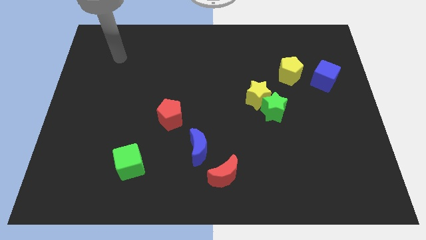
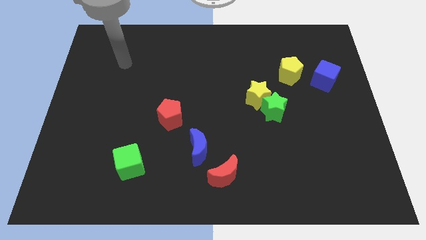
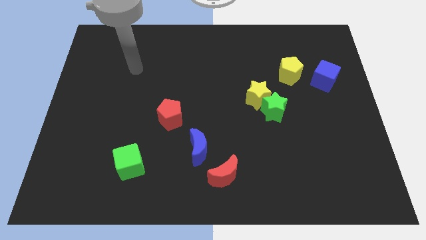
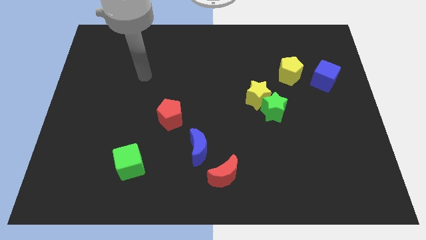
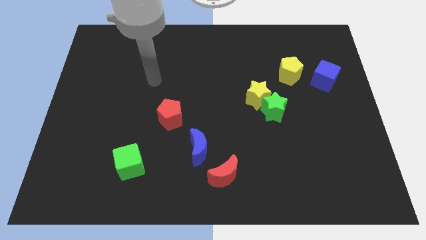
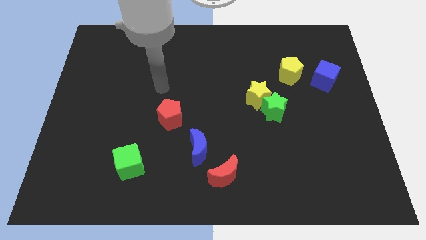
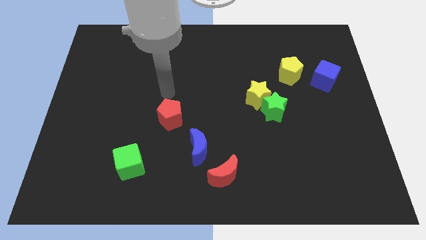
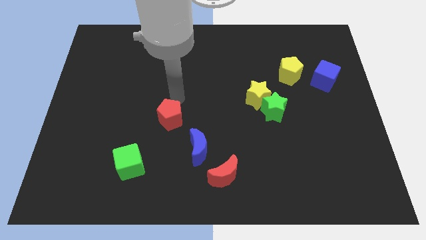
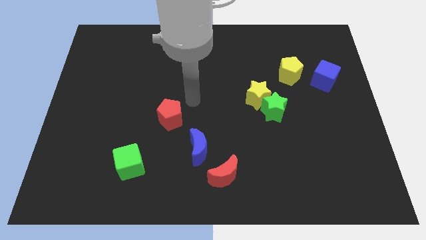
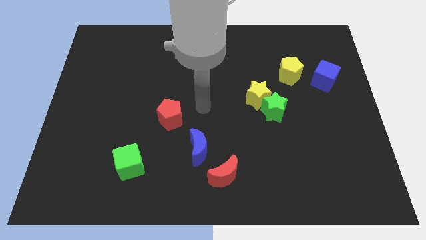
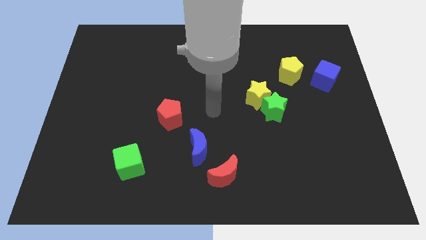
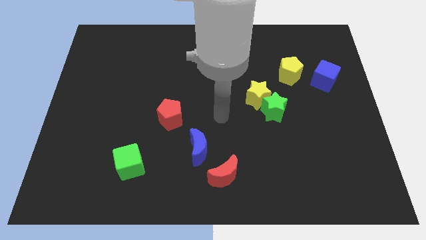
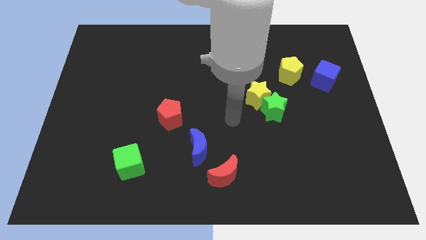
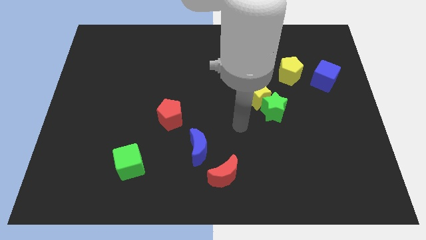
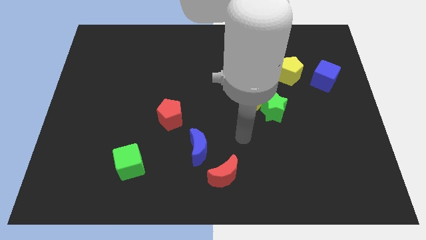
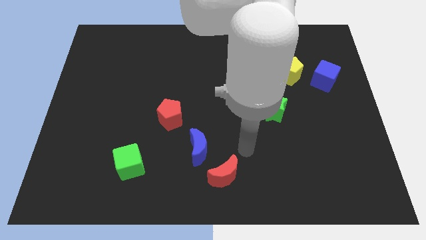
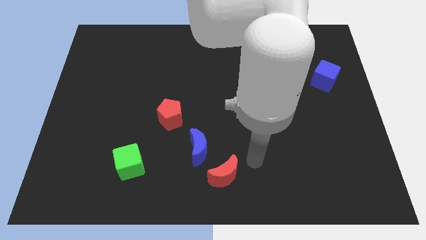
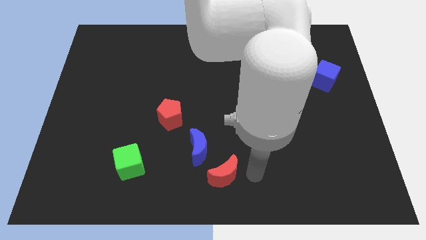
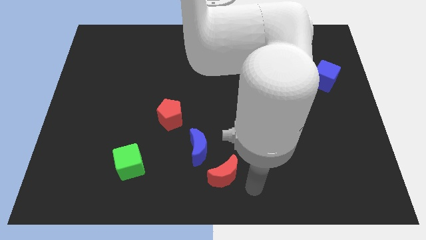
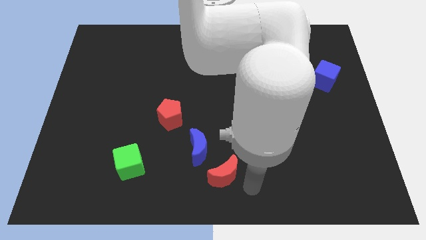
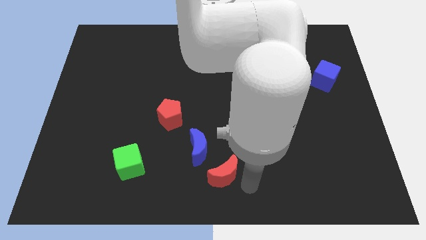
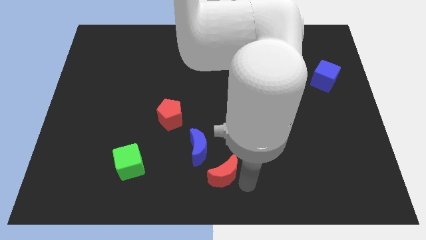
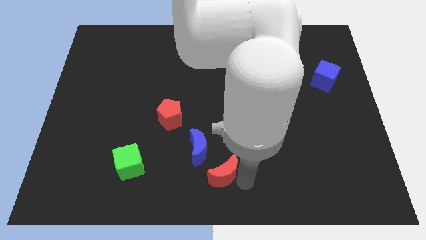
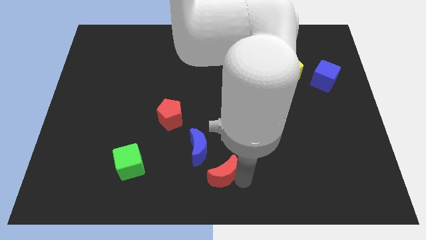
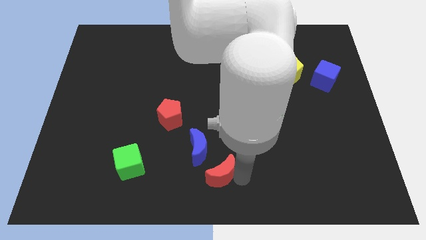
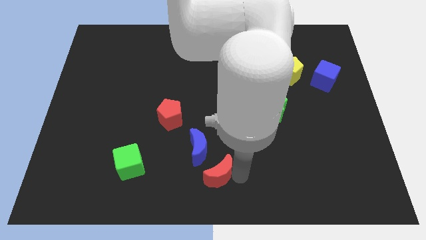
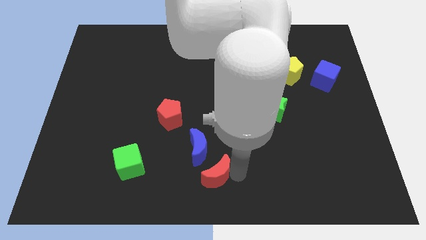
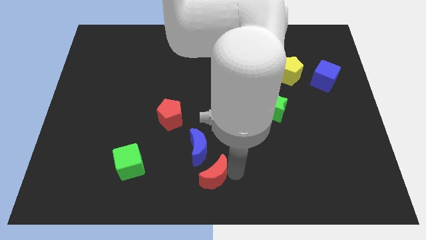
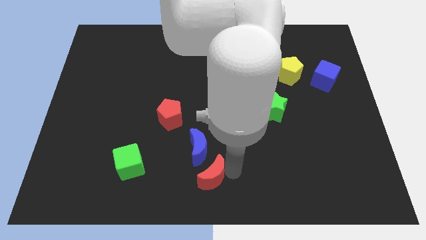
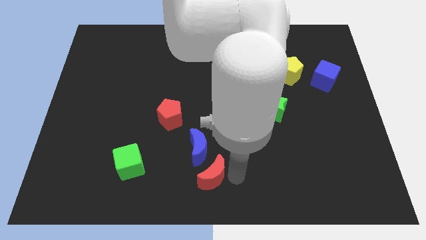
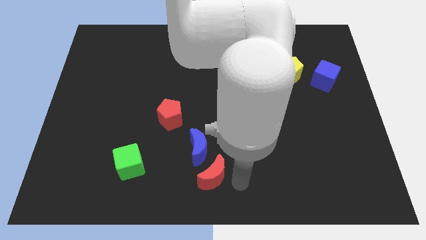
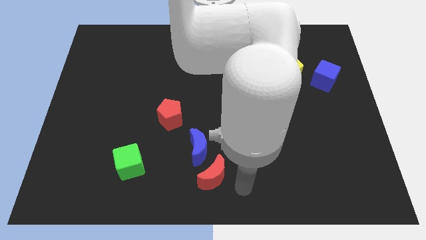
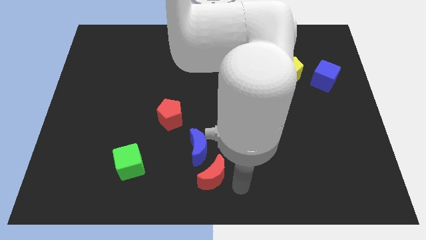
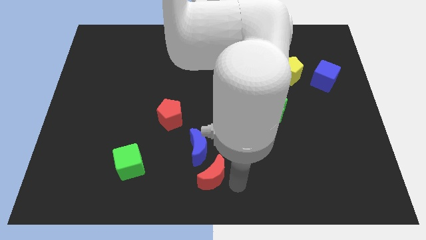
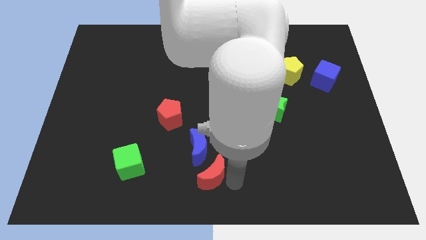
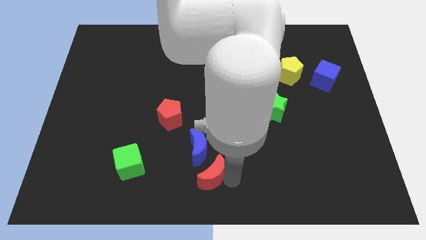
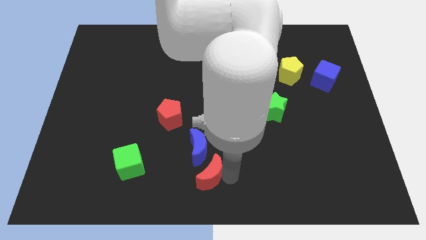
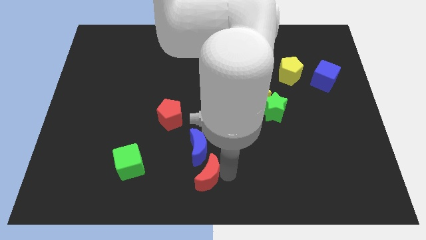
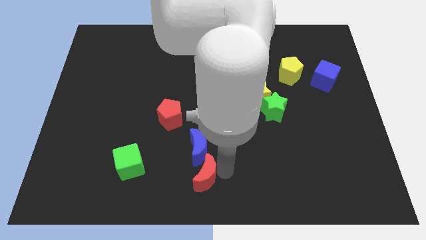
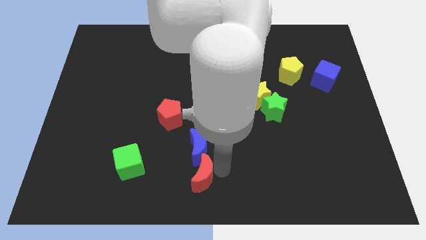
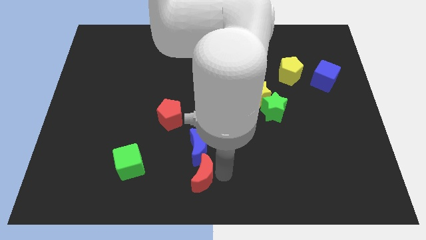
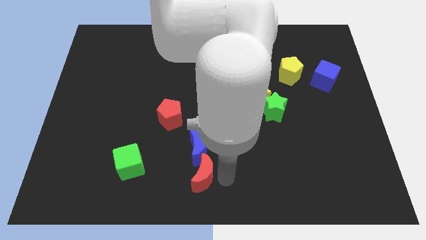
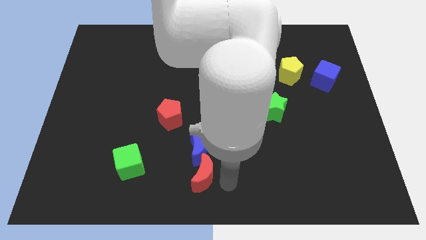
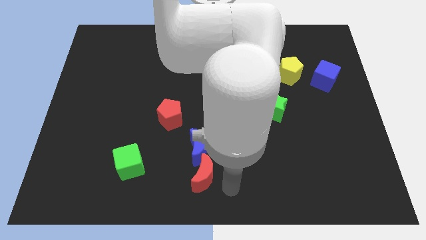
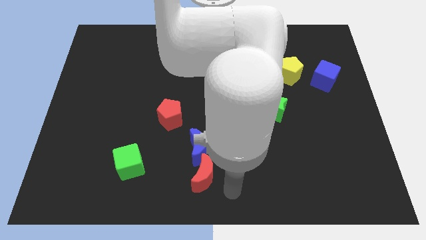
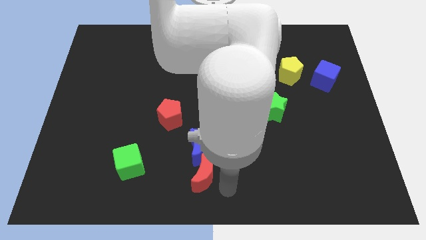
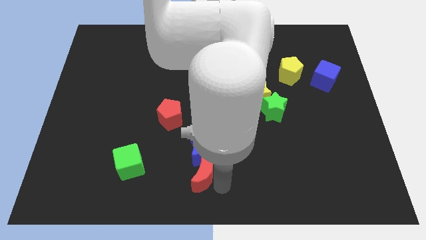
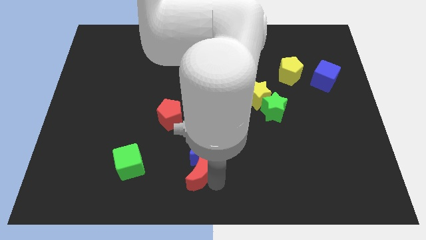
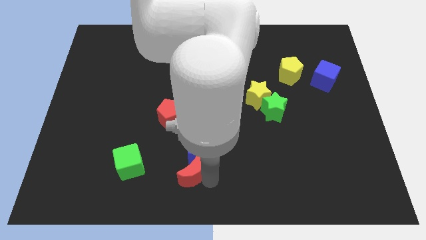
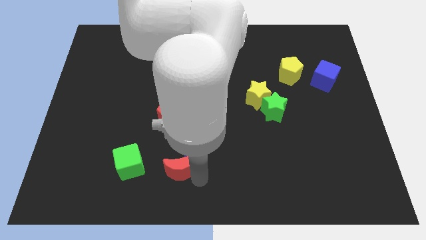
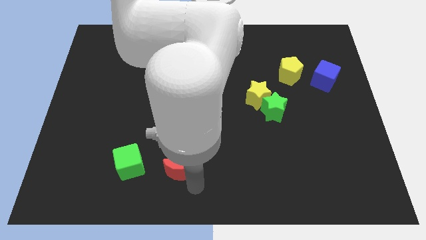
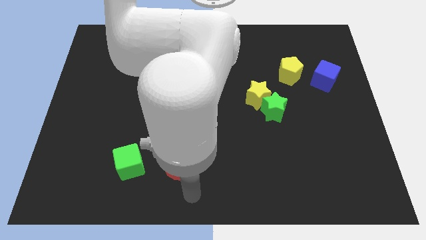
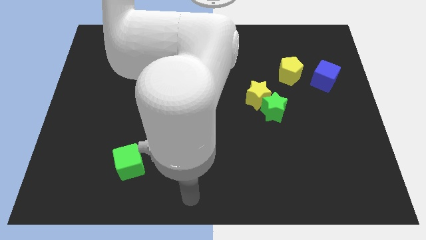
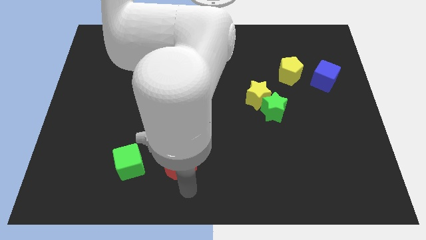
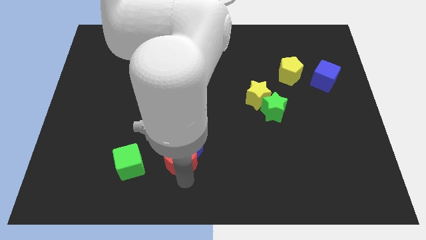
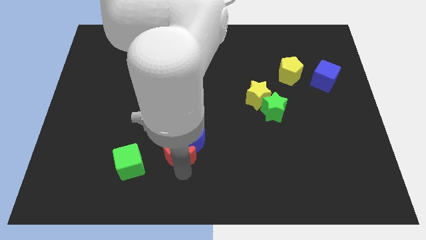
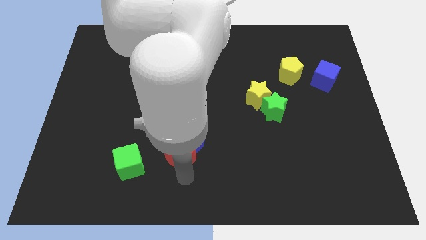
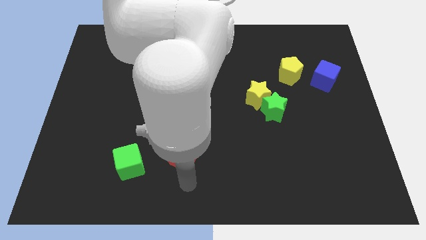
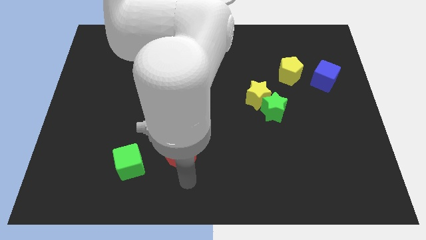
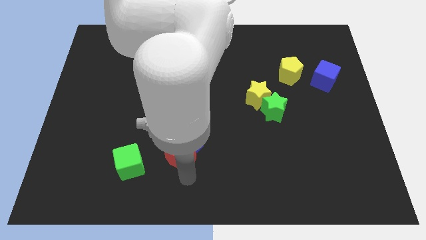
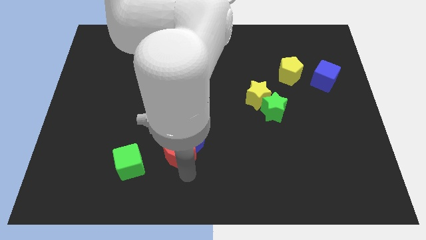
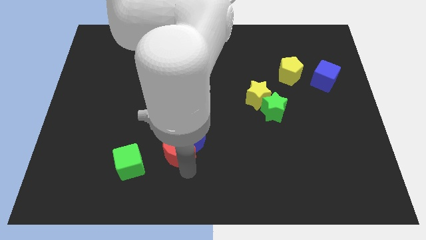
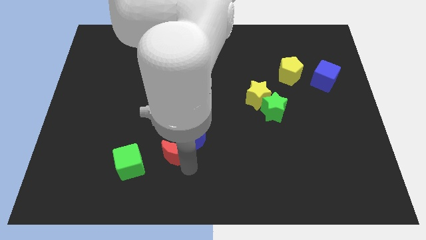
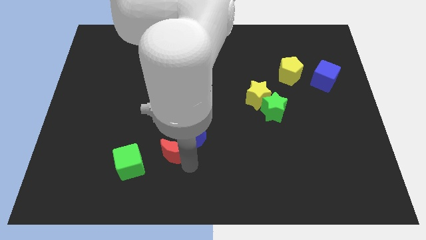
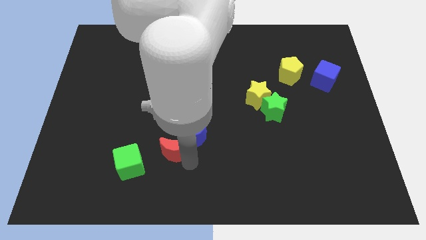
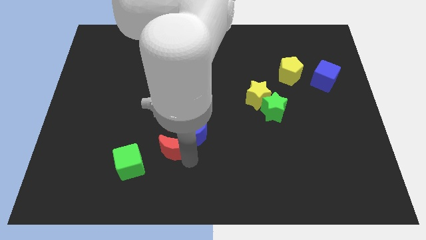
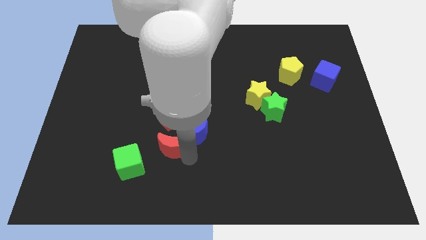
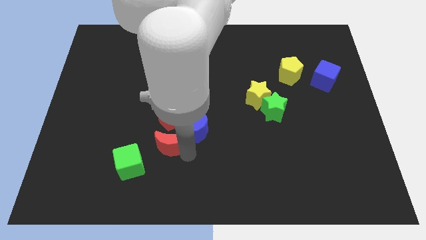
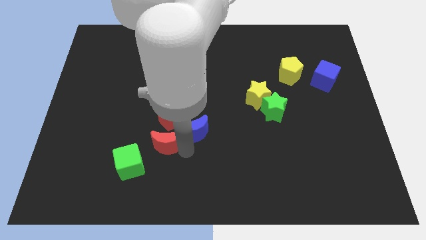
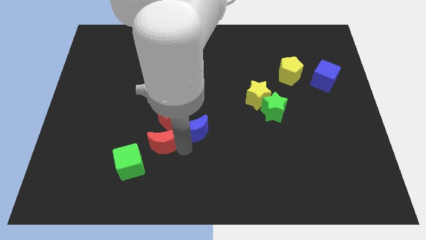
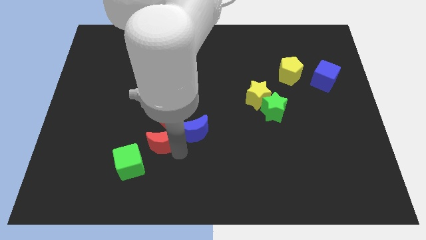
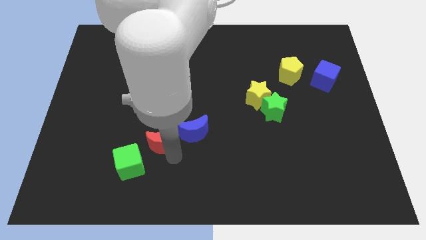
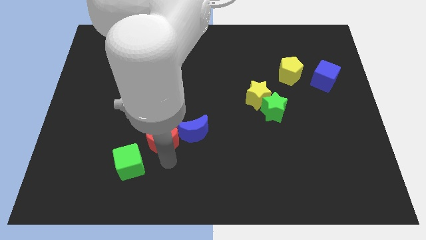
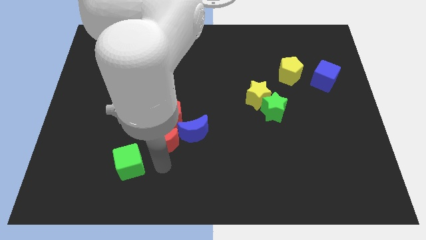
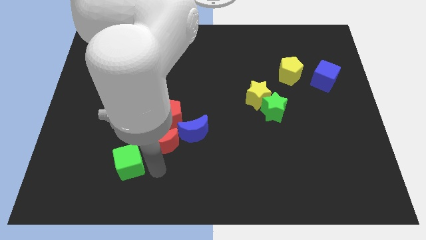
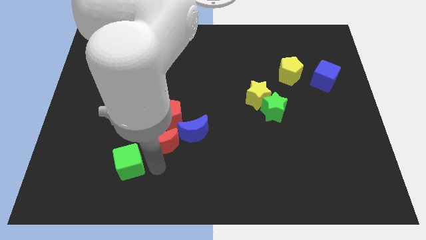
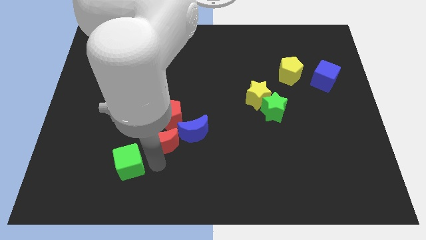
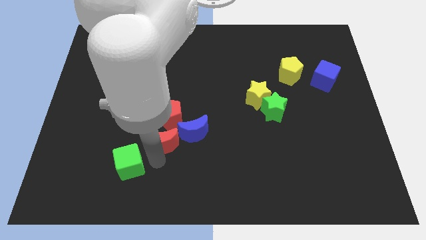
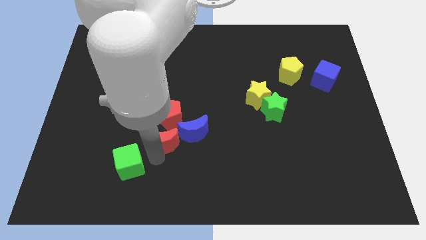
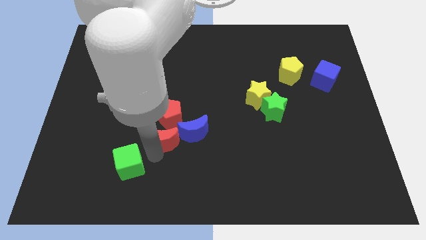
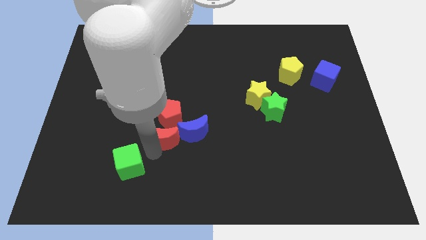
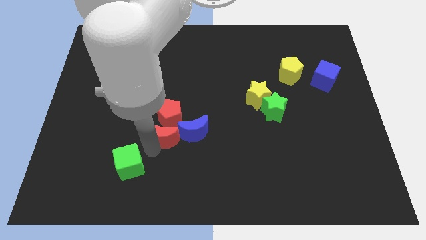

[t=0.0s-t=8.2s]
slide the red moon close to the red pentagon
